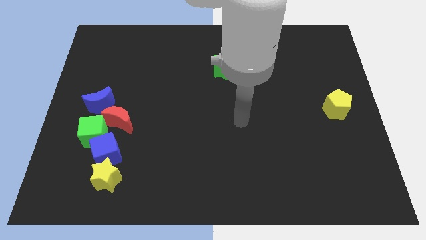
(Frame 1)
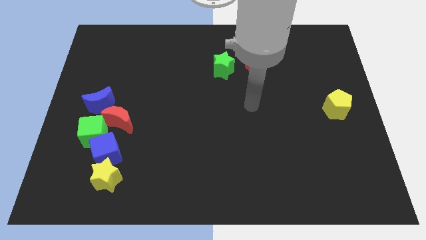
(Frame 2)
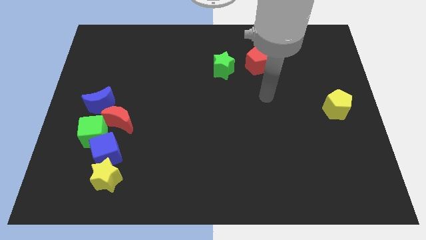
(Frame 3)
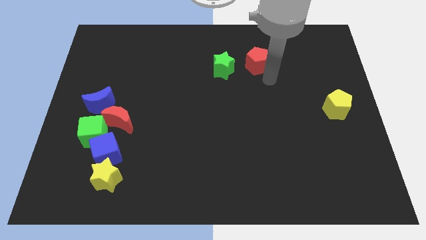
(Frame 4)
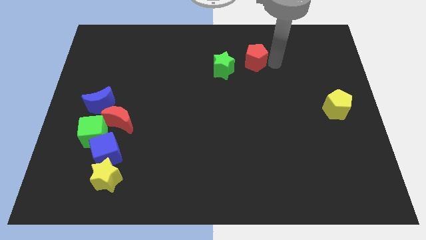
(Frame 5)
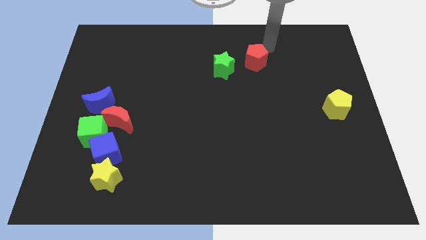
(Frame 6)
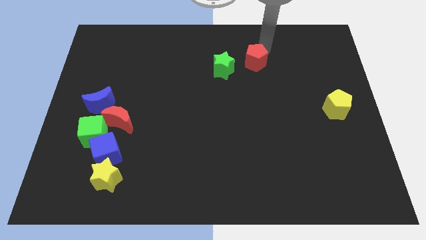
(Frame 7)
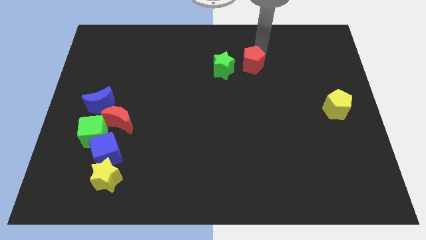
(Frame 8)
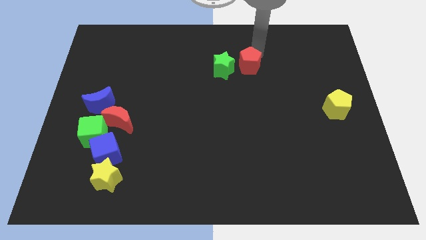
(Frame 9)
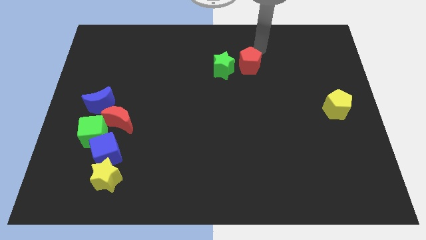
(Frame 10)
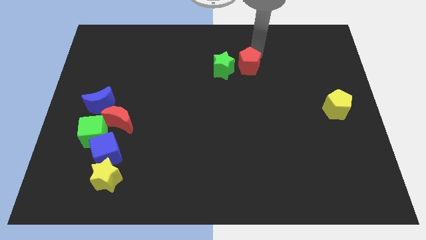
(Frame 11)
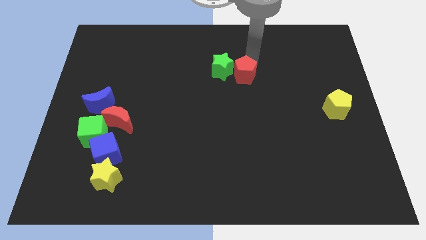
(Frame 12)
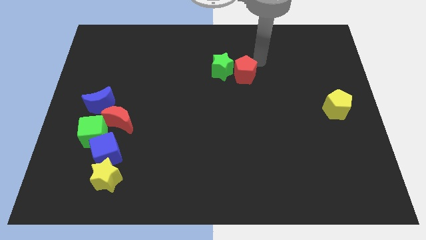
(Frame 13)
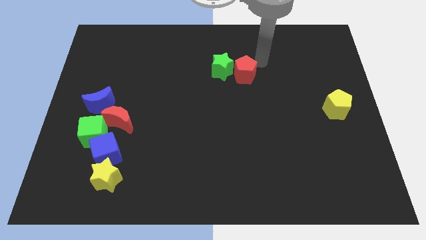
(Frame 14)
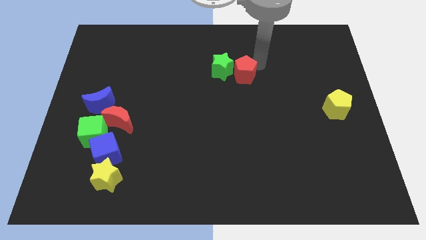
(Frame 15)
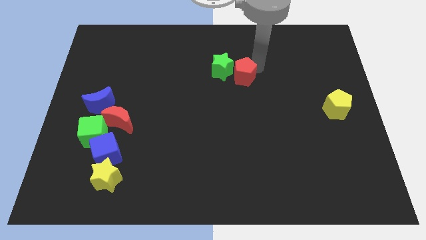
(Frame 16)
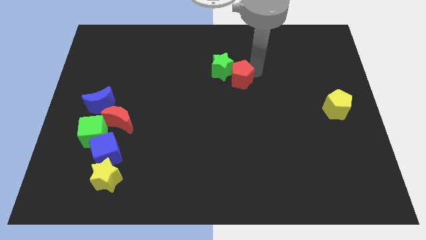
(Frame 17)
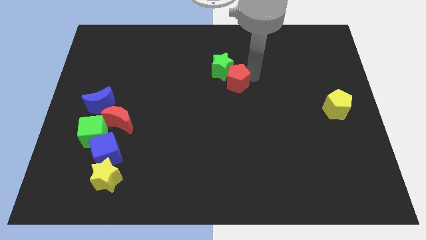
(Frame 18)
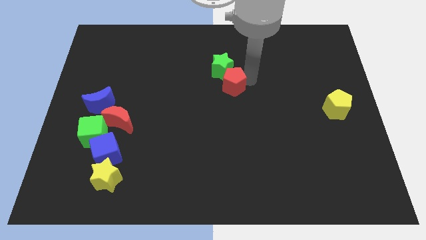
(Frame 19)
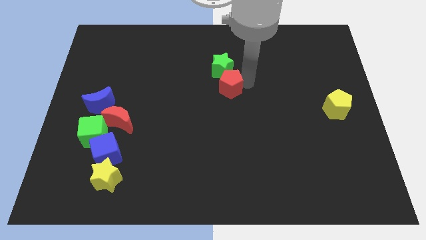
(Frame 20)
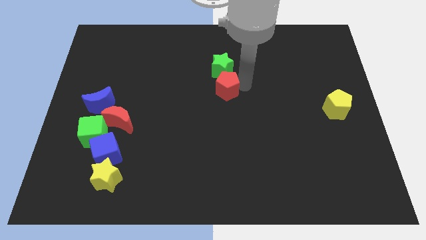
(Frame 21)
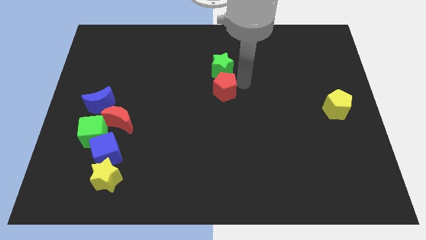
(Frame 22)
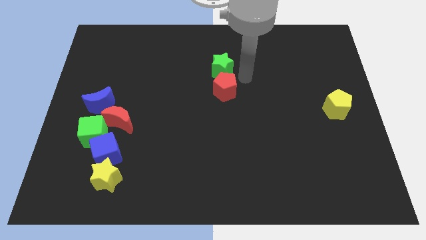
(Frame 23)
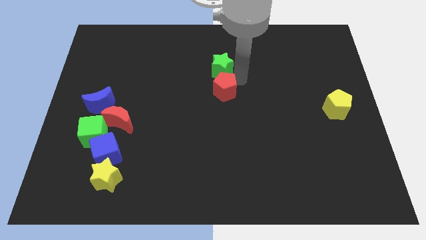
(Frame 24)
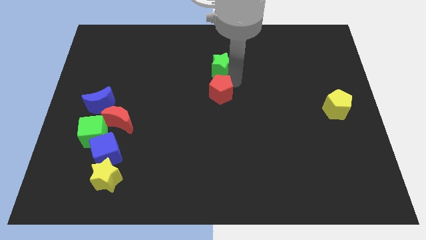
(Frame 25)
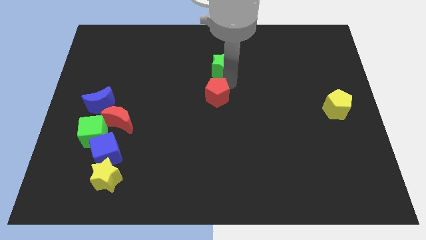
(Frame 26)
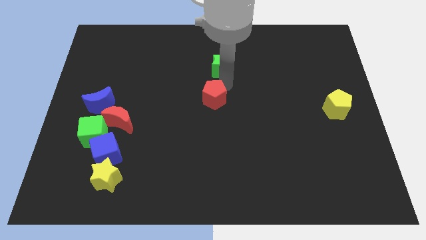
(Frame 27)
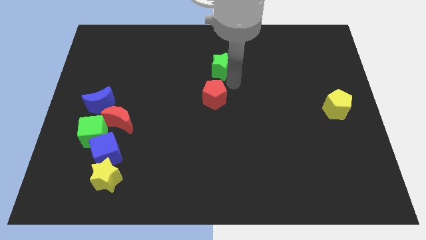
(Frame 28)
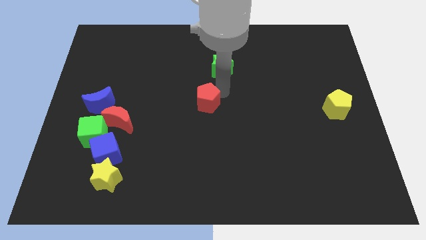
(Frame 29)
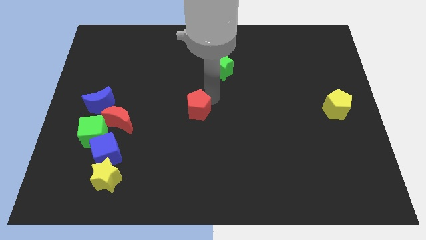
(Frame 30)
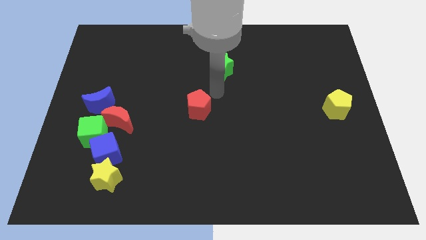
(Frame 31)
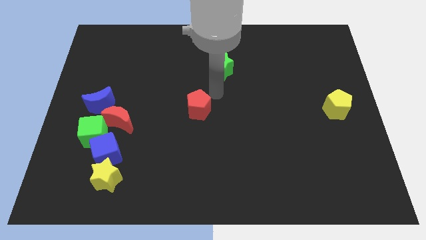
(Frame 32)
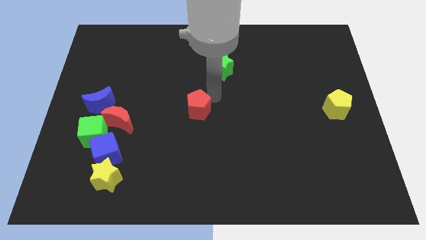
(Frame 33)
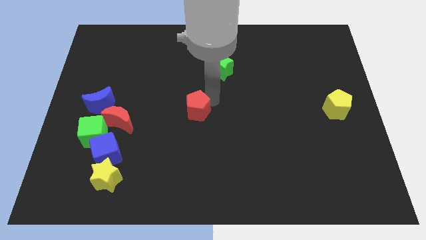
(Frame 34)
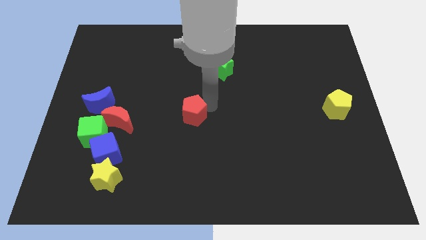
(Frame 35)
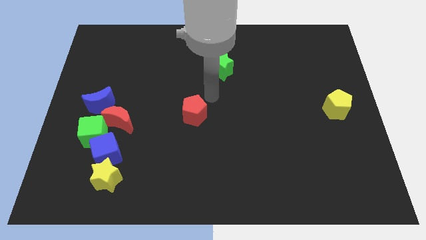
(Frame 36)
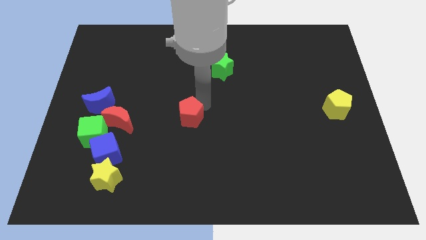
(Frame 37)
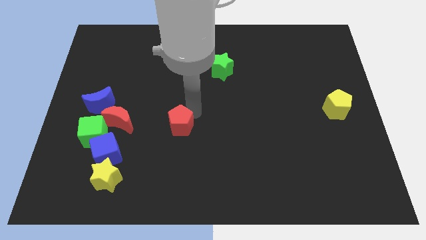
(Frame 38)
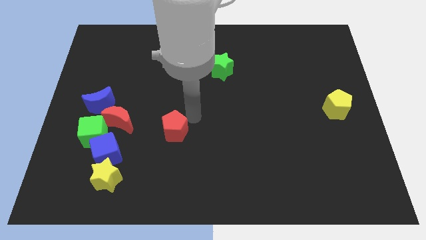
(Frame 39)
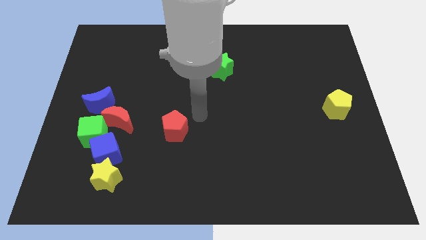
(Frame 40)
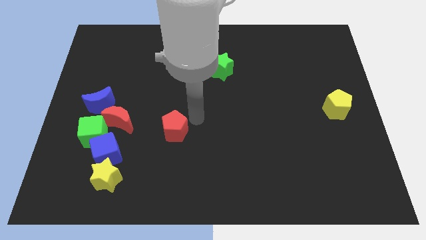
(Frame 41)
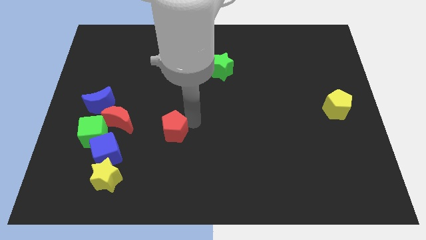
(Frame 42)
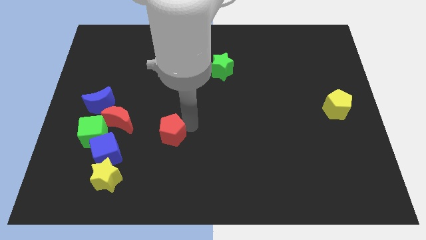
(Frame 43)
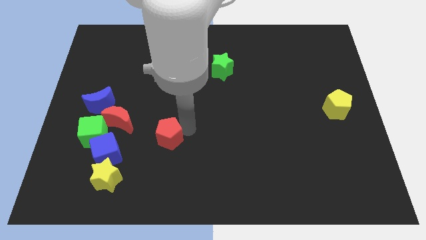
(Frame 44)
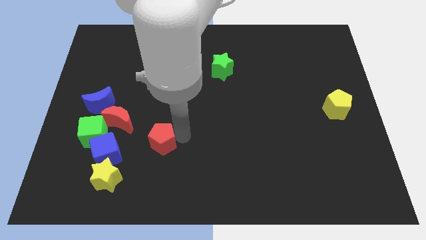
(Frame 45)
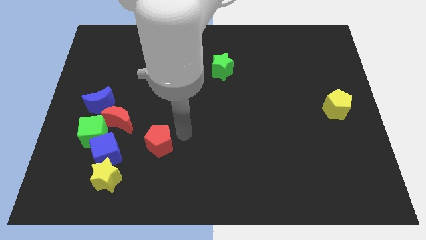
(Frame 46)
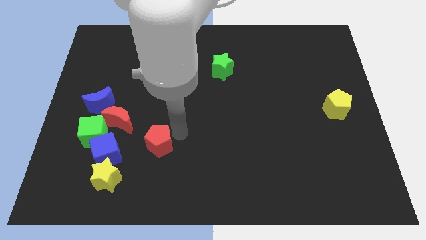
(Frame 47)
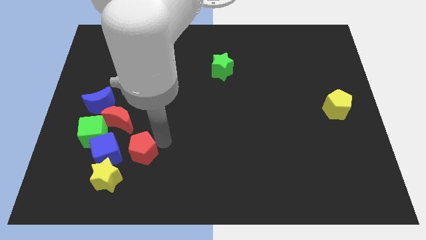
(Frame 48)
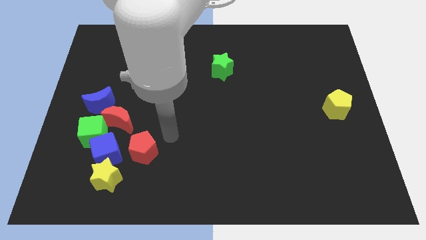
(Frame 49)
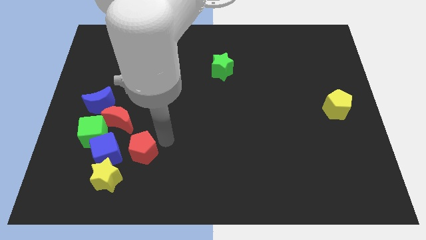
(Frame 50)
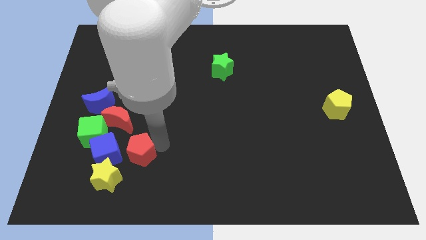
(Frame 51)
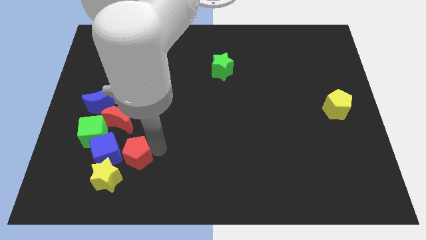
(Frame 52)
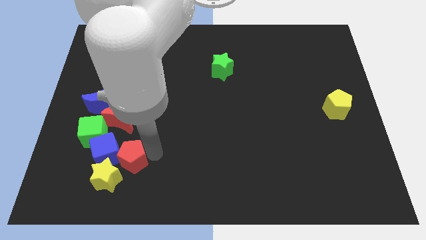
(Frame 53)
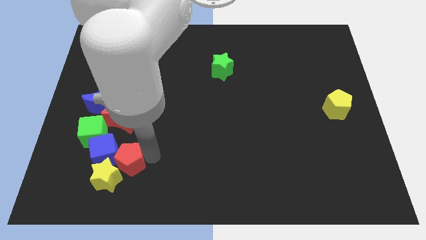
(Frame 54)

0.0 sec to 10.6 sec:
slide the red pentagon to the yellow star

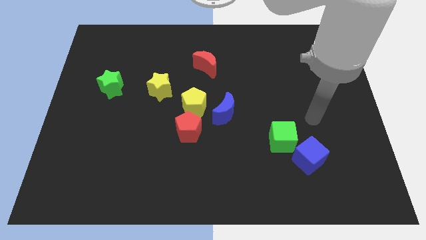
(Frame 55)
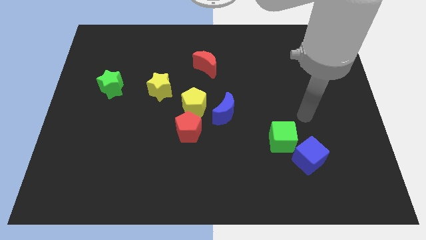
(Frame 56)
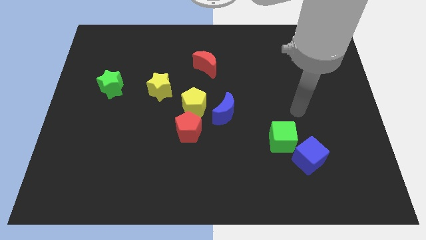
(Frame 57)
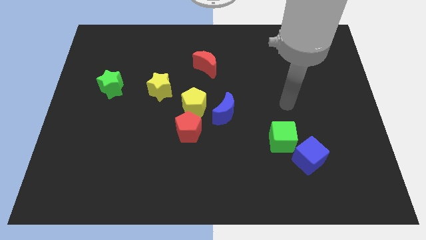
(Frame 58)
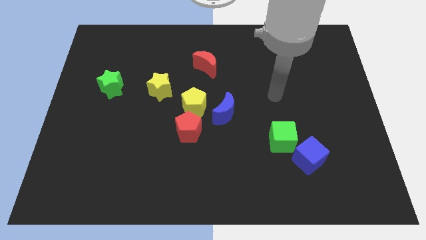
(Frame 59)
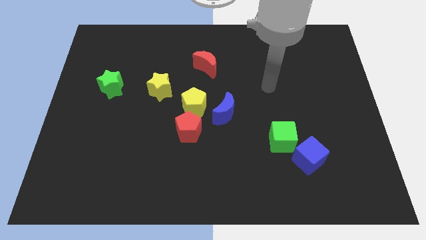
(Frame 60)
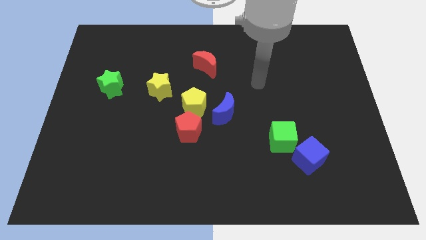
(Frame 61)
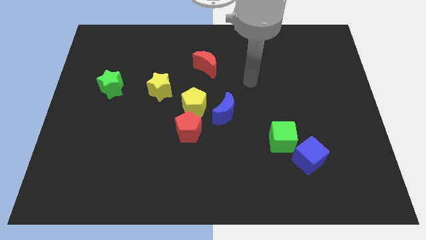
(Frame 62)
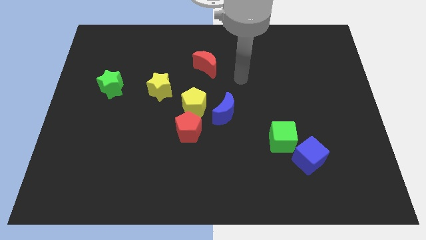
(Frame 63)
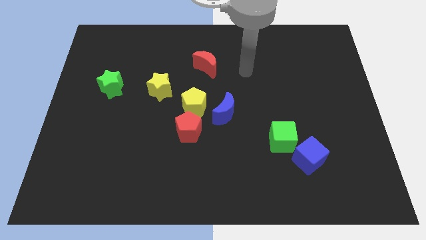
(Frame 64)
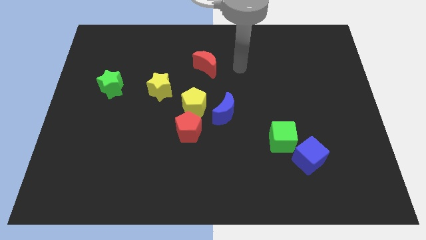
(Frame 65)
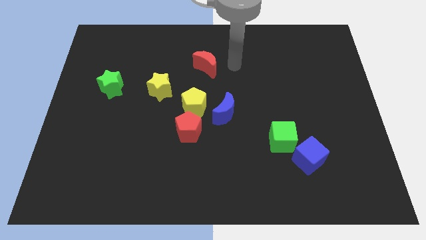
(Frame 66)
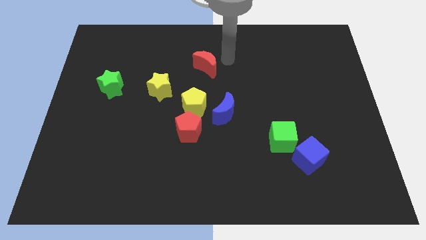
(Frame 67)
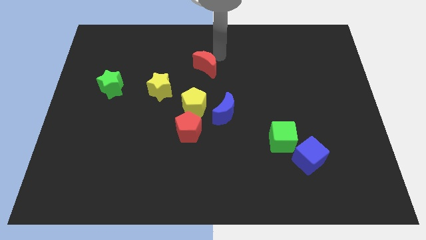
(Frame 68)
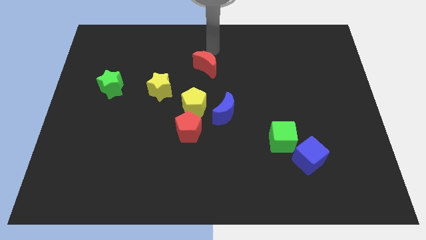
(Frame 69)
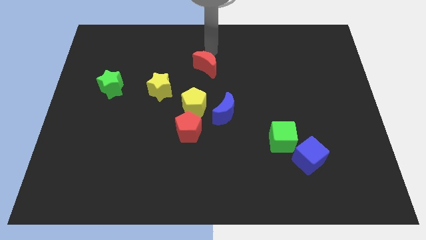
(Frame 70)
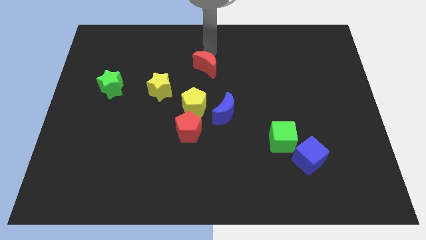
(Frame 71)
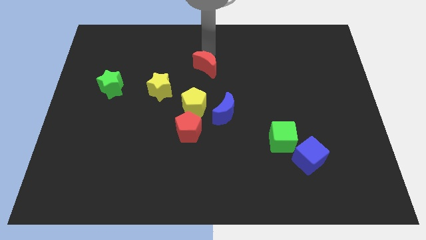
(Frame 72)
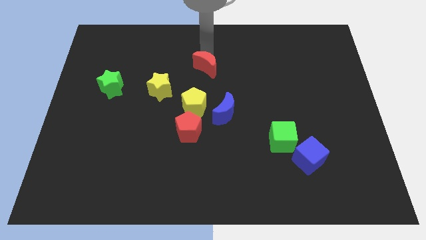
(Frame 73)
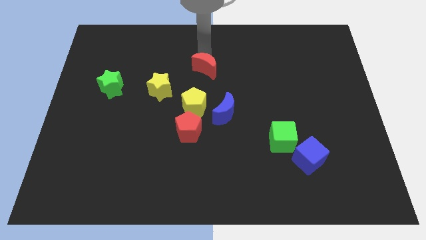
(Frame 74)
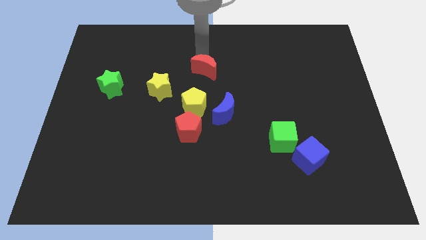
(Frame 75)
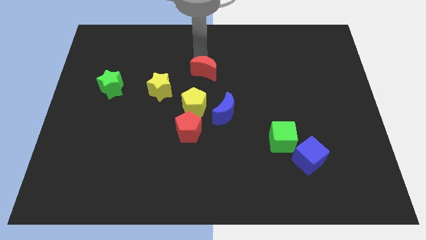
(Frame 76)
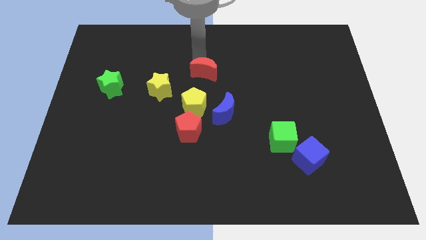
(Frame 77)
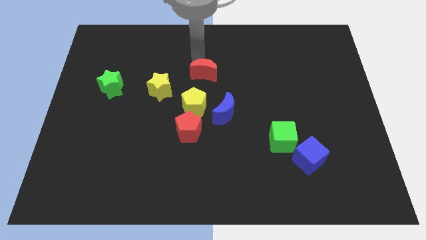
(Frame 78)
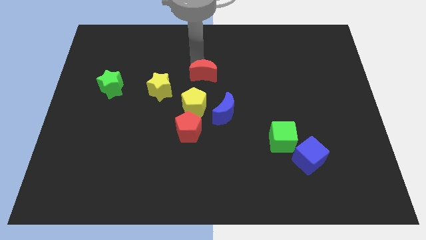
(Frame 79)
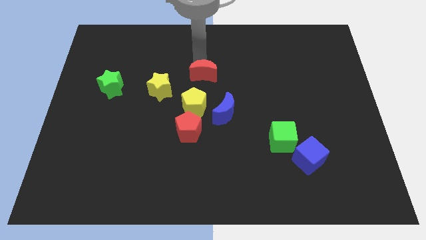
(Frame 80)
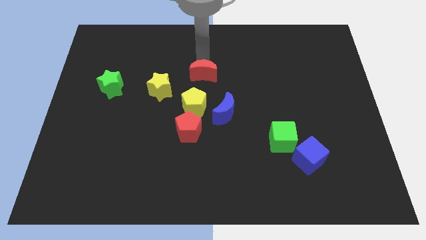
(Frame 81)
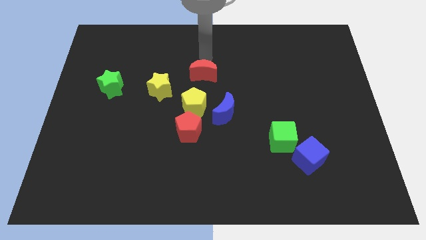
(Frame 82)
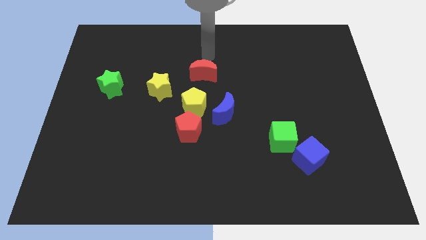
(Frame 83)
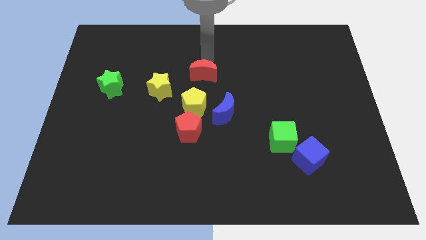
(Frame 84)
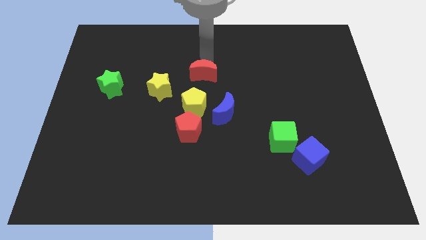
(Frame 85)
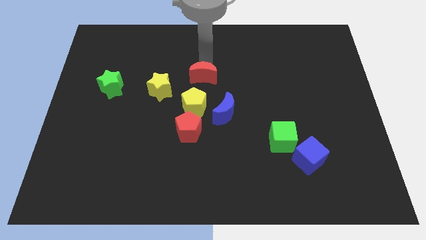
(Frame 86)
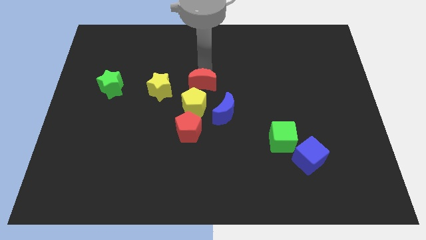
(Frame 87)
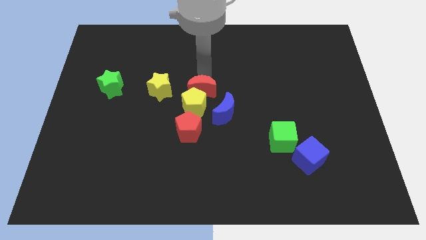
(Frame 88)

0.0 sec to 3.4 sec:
slide the red moon towards the yellow pentagon
